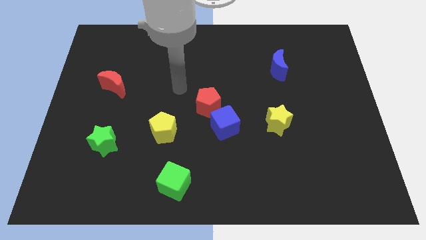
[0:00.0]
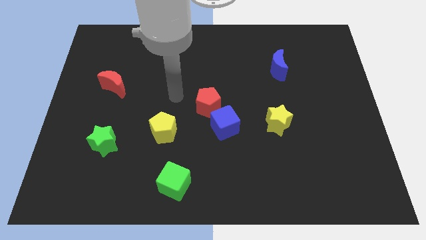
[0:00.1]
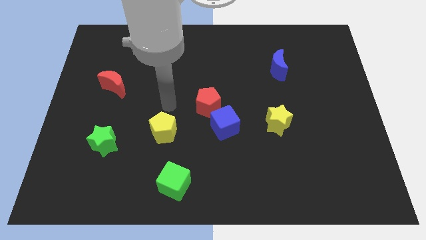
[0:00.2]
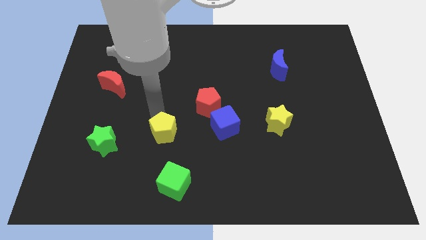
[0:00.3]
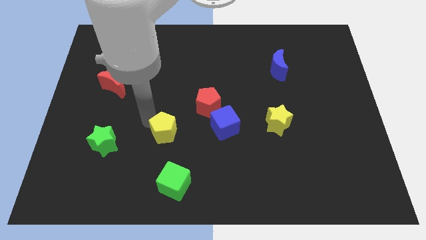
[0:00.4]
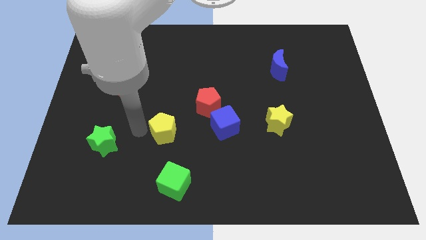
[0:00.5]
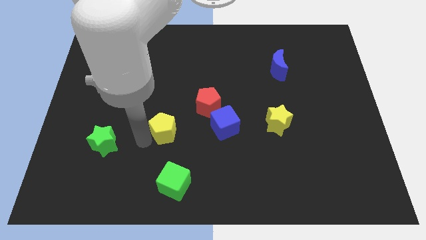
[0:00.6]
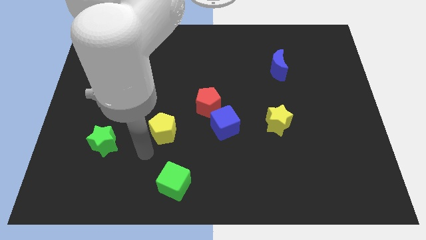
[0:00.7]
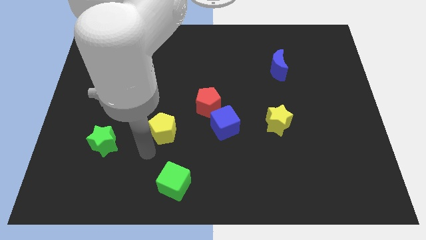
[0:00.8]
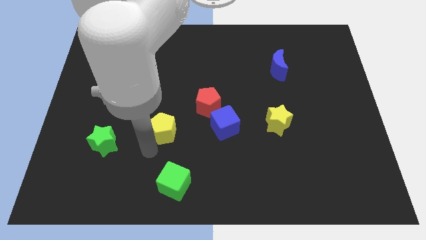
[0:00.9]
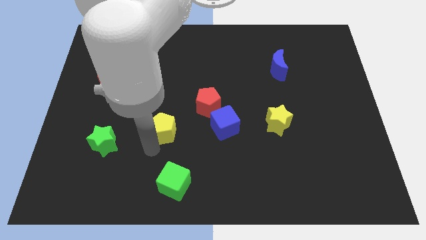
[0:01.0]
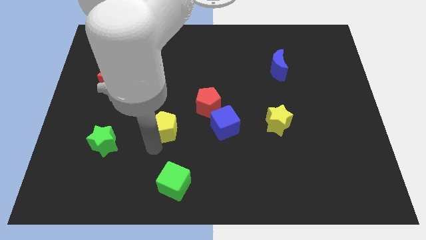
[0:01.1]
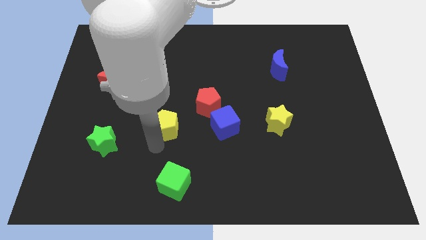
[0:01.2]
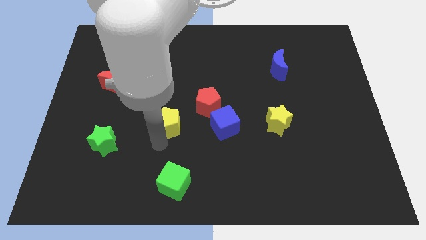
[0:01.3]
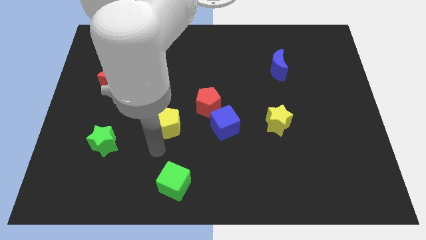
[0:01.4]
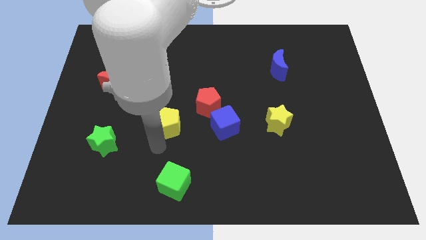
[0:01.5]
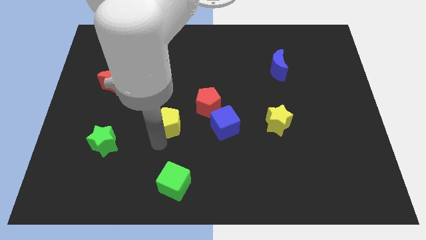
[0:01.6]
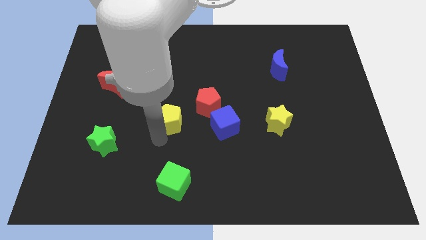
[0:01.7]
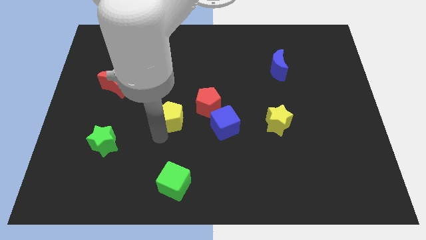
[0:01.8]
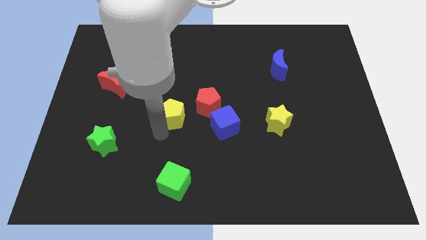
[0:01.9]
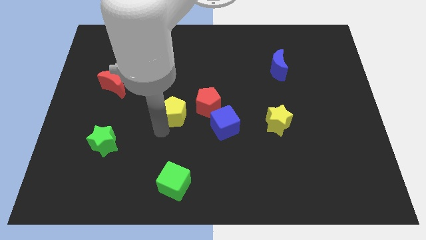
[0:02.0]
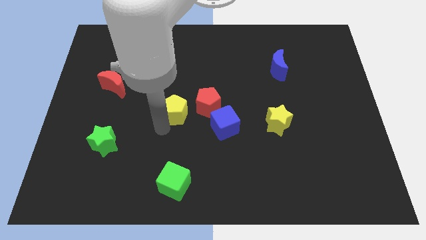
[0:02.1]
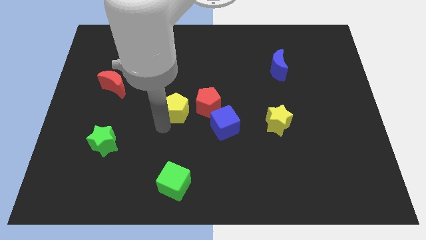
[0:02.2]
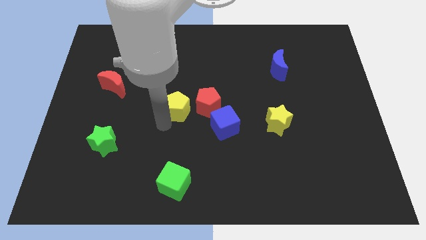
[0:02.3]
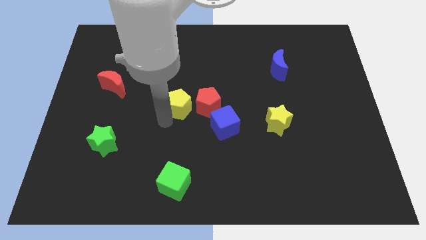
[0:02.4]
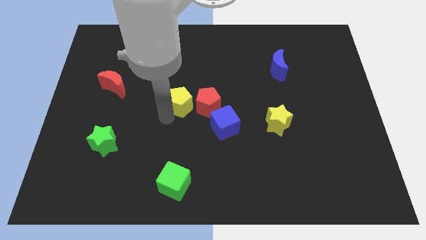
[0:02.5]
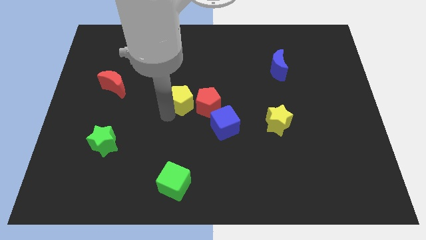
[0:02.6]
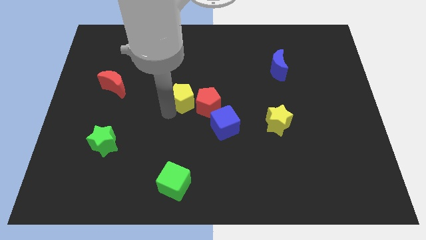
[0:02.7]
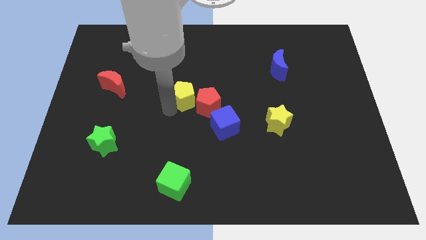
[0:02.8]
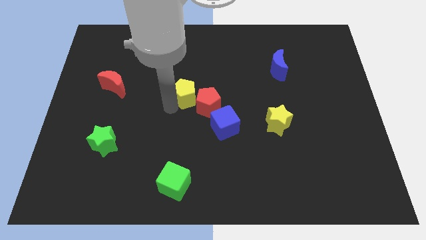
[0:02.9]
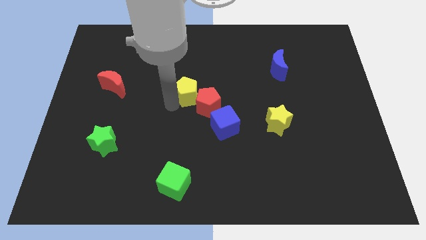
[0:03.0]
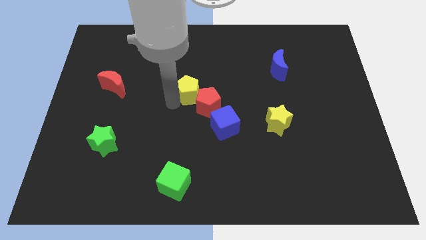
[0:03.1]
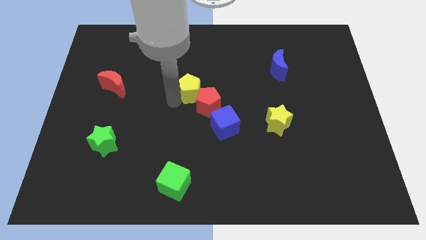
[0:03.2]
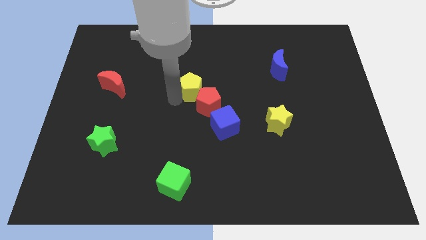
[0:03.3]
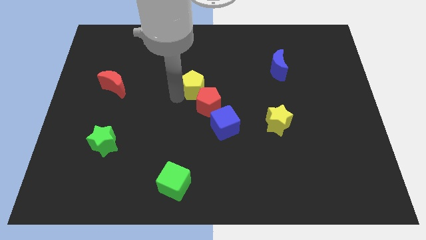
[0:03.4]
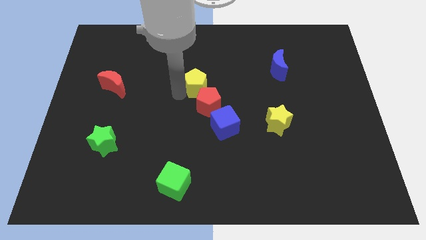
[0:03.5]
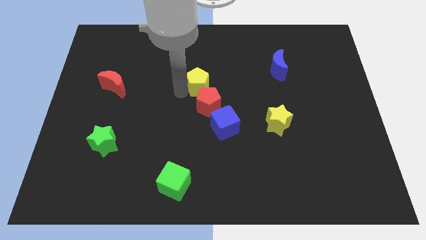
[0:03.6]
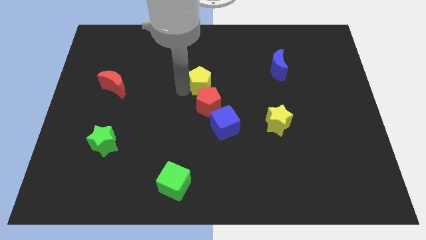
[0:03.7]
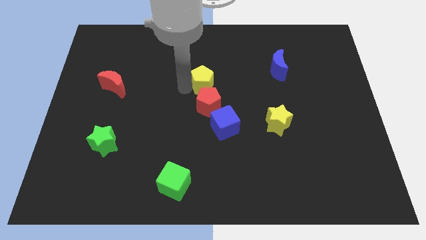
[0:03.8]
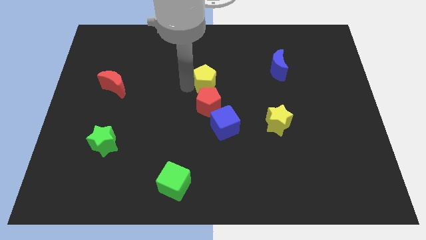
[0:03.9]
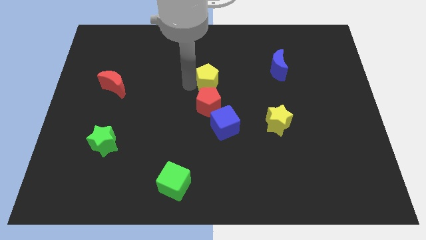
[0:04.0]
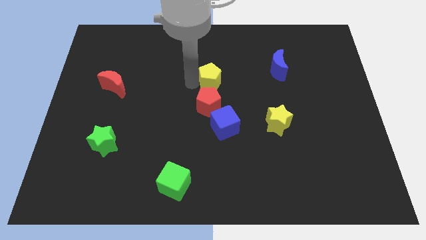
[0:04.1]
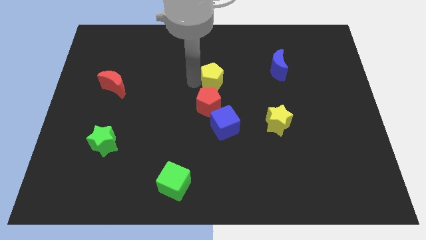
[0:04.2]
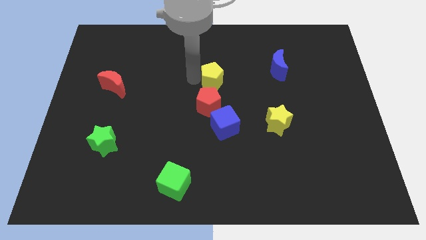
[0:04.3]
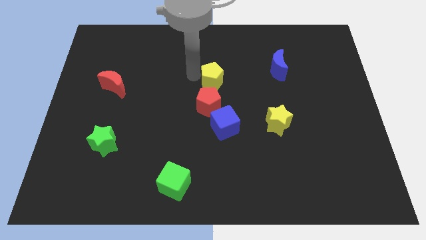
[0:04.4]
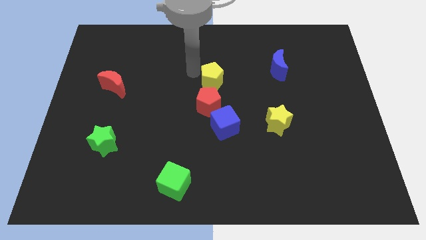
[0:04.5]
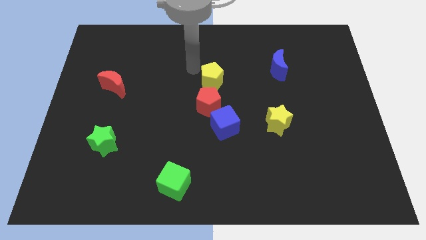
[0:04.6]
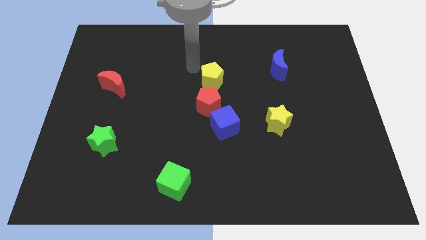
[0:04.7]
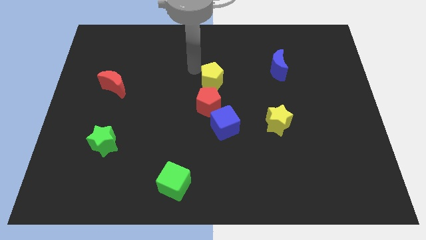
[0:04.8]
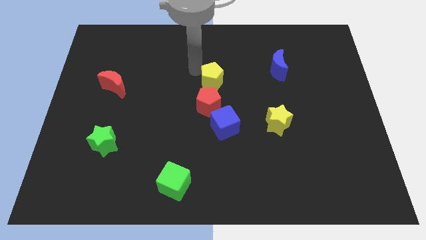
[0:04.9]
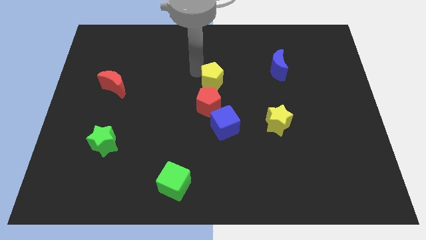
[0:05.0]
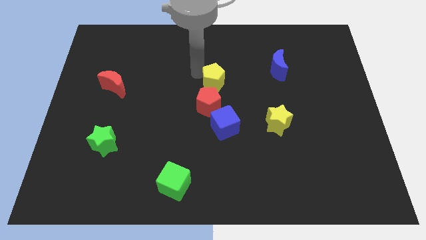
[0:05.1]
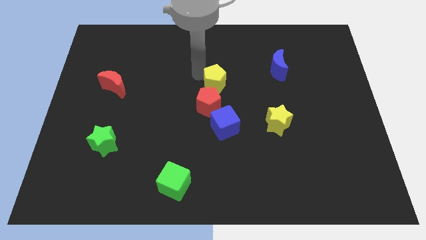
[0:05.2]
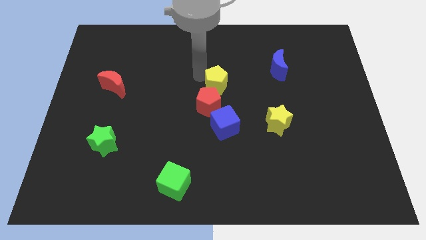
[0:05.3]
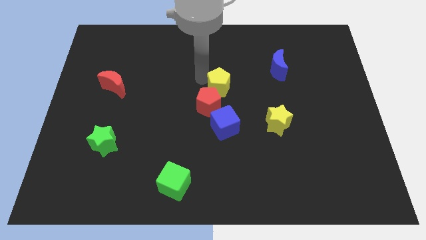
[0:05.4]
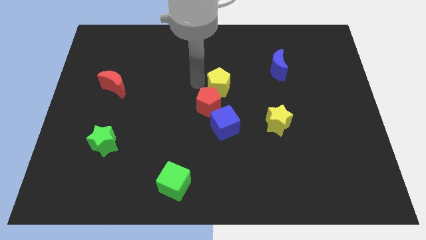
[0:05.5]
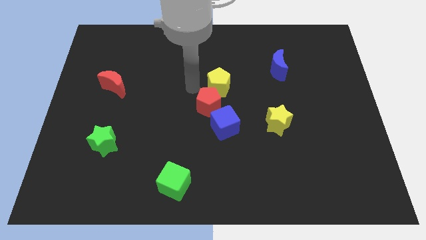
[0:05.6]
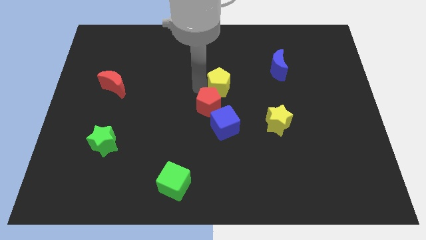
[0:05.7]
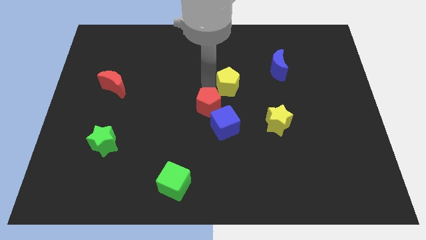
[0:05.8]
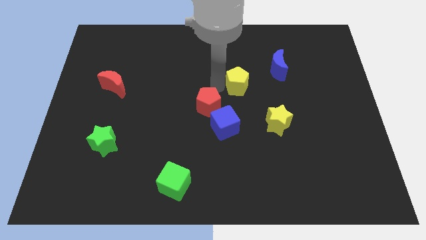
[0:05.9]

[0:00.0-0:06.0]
move the yellow pentagon diagonally down and to the left of the blue moon

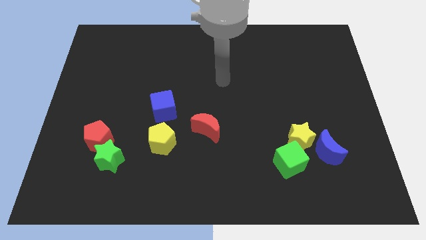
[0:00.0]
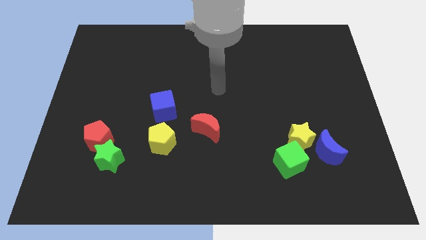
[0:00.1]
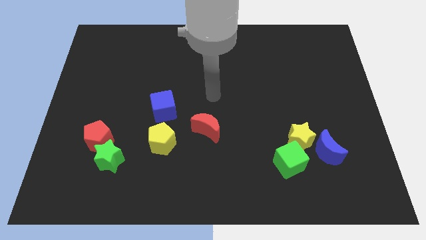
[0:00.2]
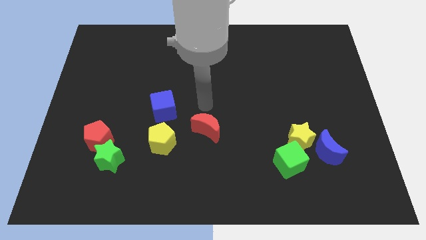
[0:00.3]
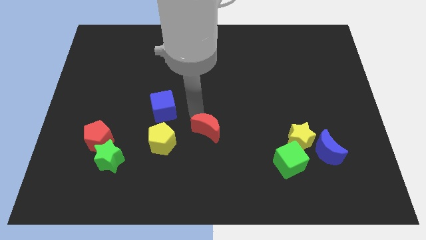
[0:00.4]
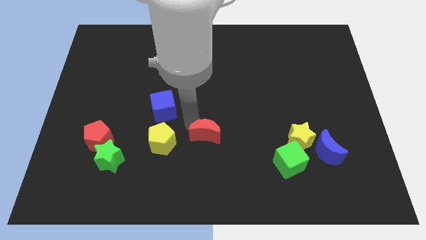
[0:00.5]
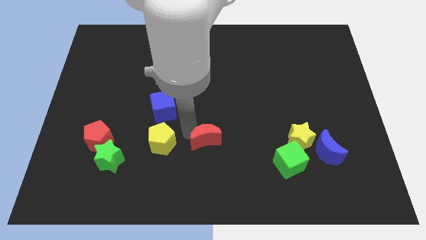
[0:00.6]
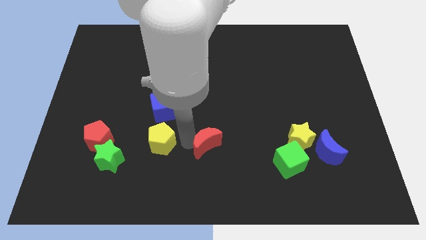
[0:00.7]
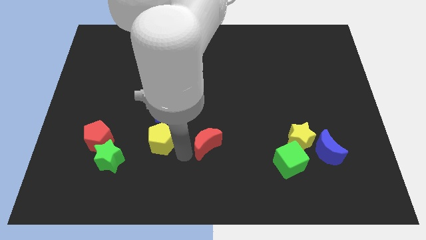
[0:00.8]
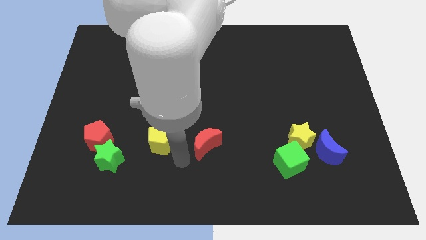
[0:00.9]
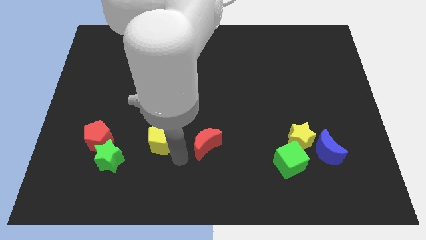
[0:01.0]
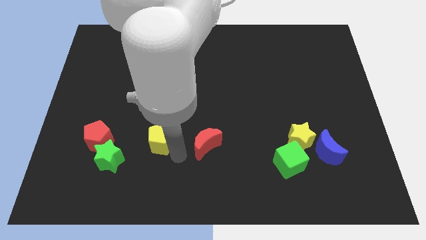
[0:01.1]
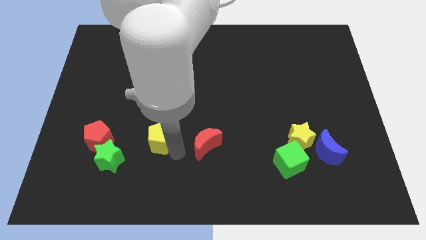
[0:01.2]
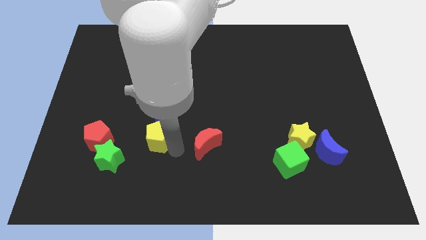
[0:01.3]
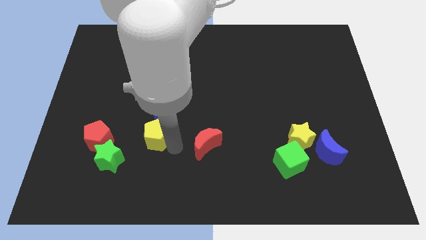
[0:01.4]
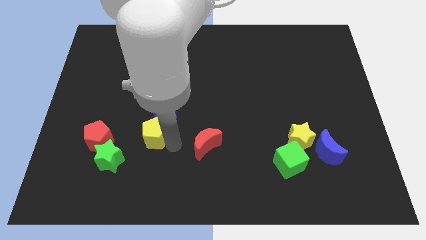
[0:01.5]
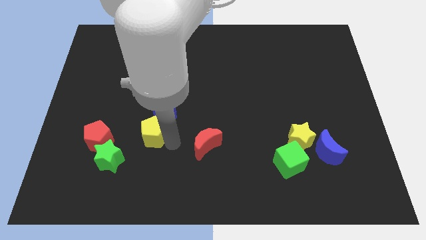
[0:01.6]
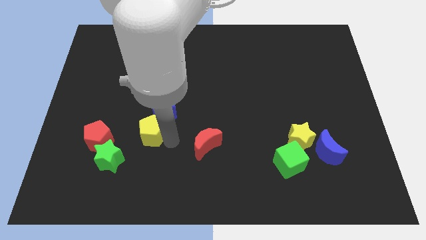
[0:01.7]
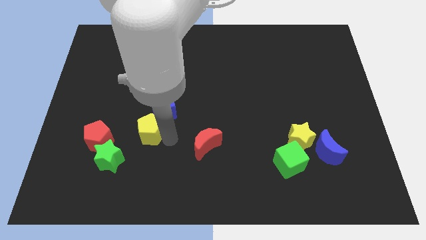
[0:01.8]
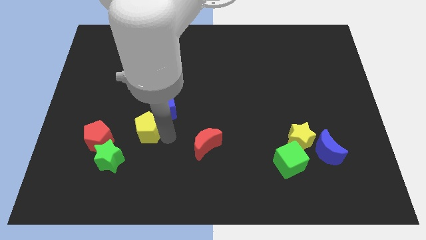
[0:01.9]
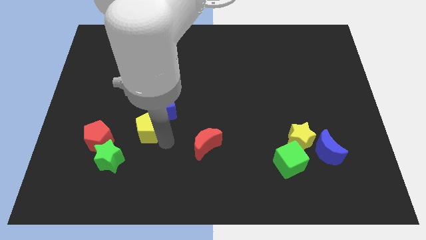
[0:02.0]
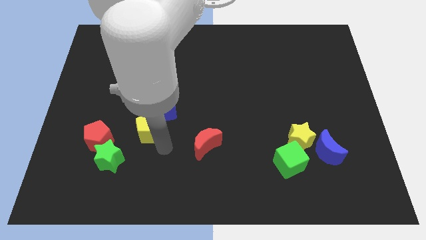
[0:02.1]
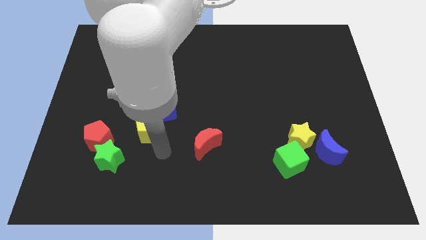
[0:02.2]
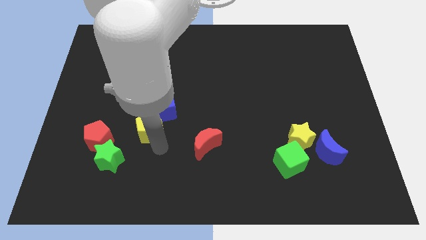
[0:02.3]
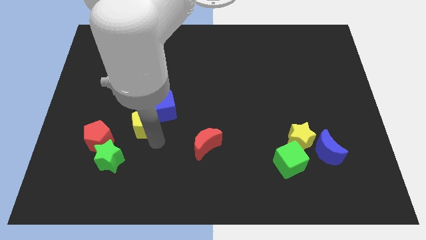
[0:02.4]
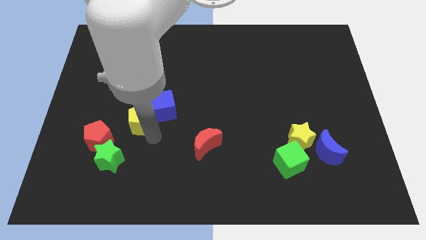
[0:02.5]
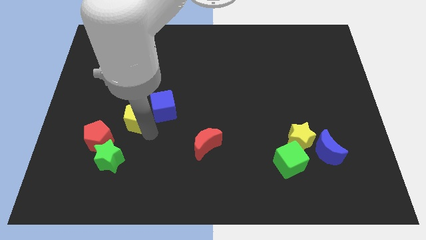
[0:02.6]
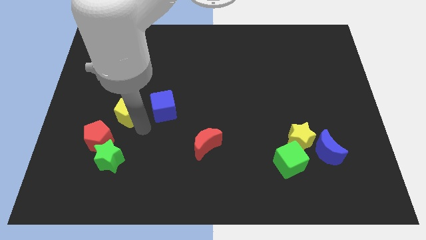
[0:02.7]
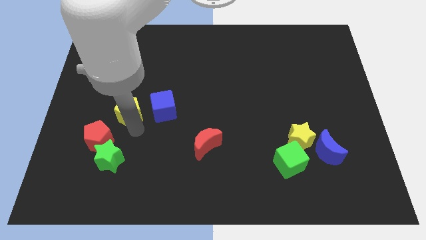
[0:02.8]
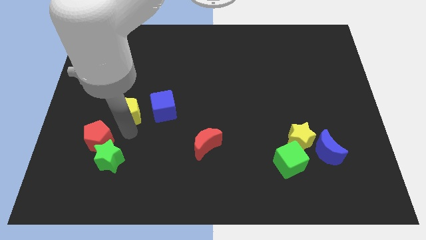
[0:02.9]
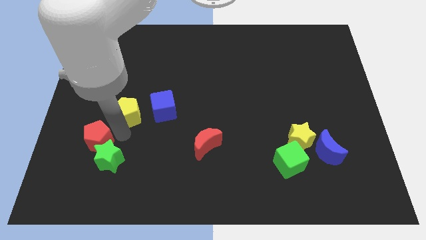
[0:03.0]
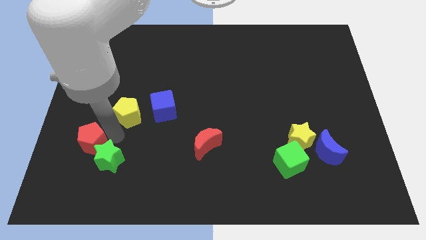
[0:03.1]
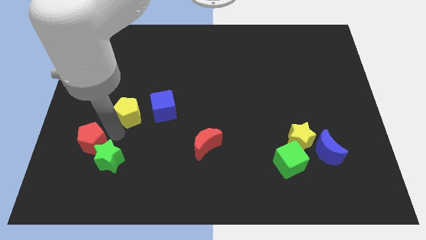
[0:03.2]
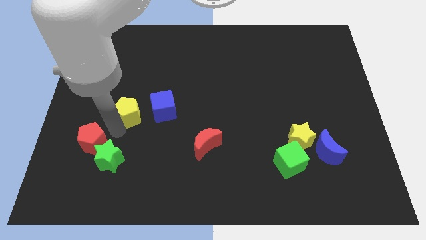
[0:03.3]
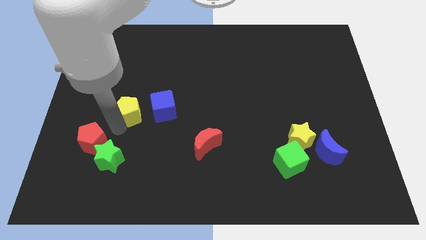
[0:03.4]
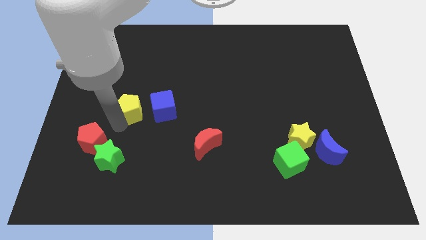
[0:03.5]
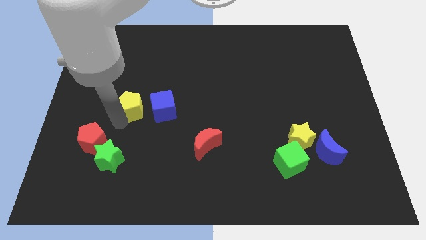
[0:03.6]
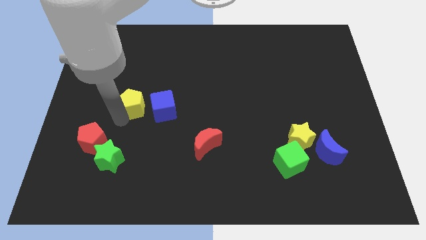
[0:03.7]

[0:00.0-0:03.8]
push the yellow pentagon to the top left of the blue cube
